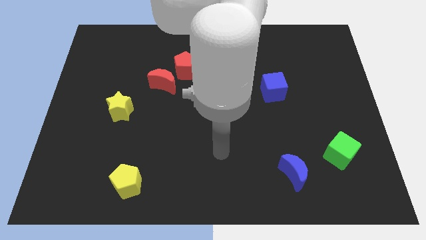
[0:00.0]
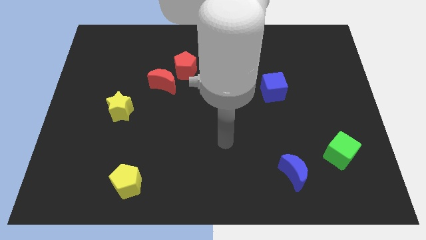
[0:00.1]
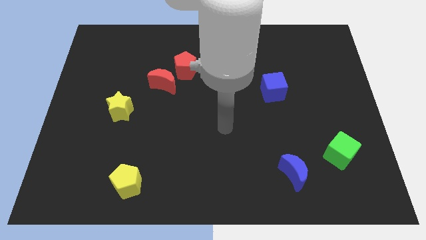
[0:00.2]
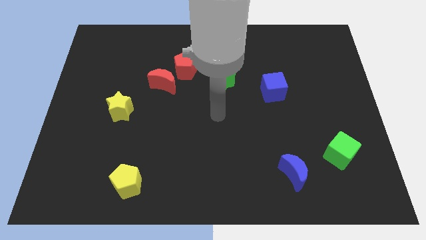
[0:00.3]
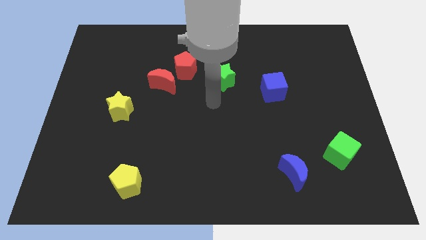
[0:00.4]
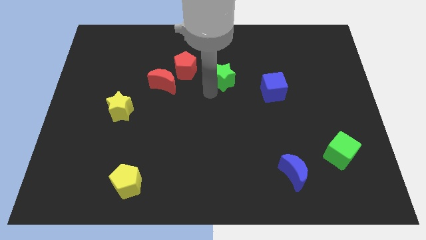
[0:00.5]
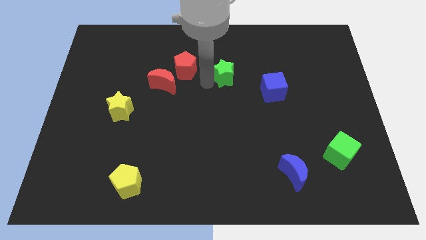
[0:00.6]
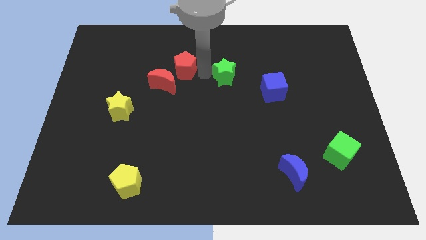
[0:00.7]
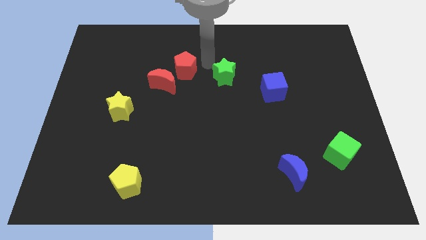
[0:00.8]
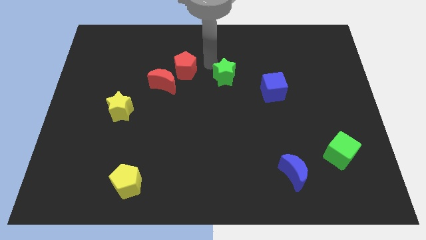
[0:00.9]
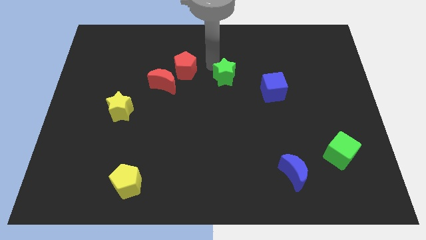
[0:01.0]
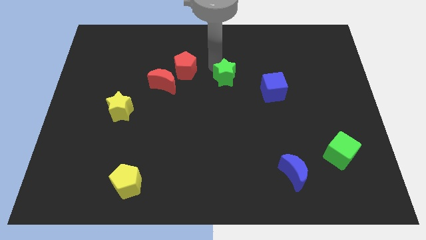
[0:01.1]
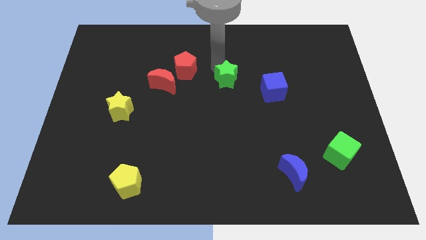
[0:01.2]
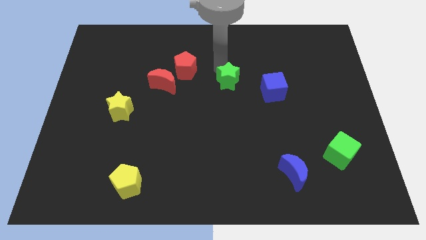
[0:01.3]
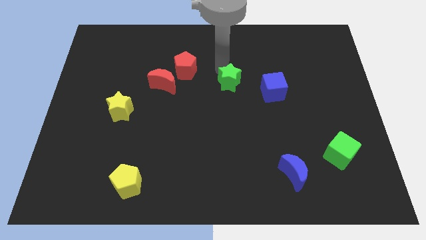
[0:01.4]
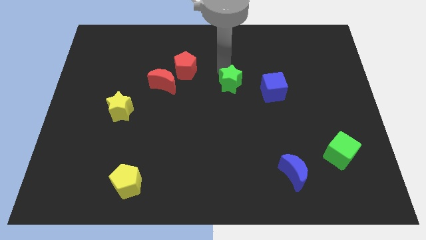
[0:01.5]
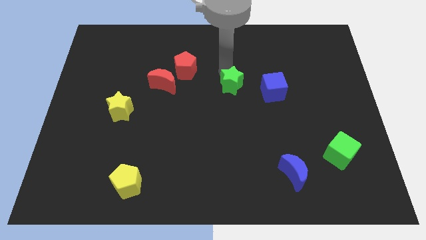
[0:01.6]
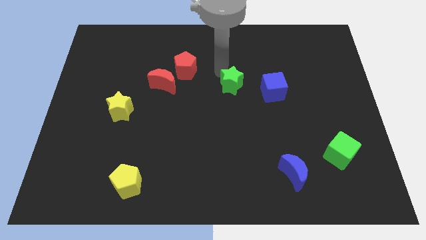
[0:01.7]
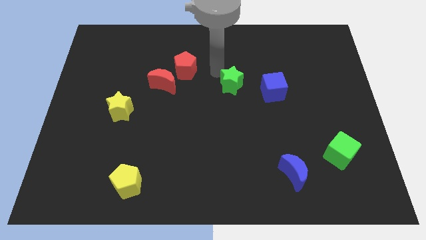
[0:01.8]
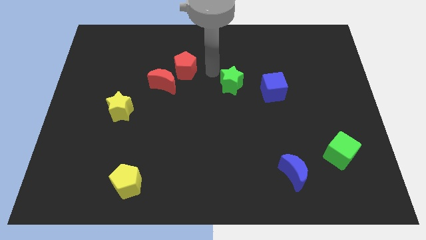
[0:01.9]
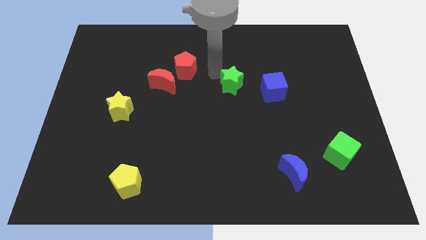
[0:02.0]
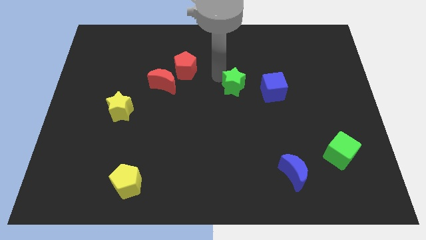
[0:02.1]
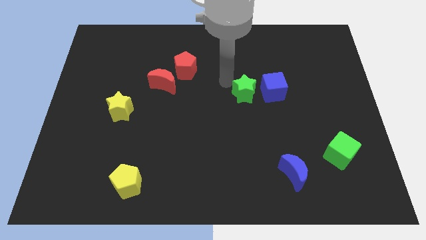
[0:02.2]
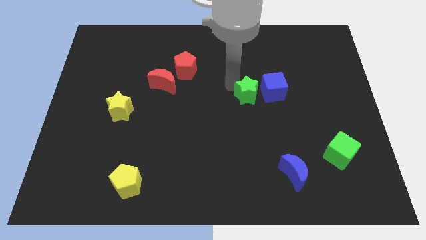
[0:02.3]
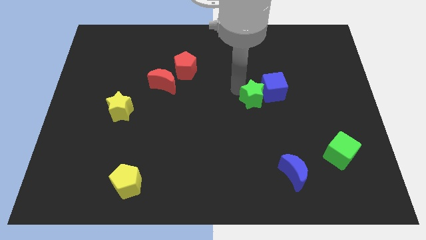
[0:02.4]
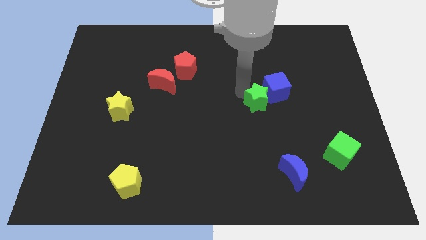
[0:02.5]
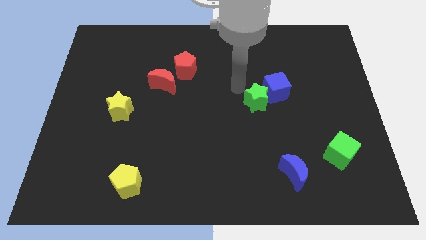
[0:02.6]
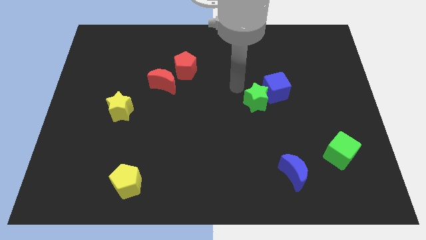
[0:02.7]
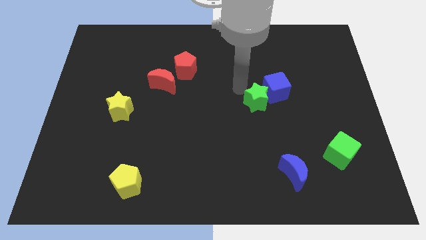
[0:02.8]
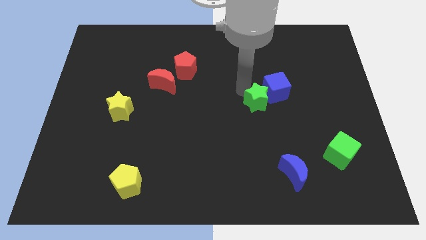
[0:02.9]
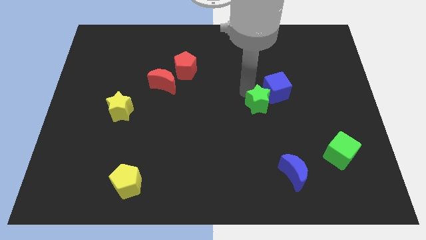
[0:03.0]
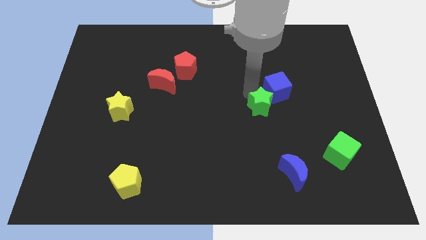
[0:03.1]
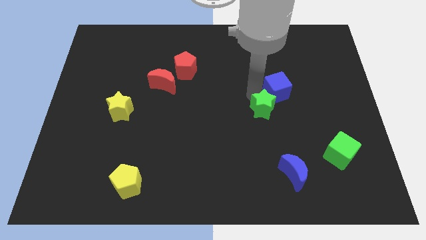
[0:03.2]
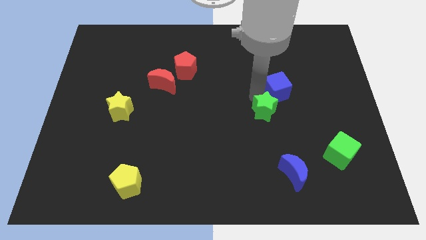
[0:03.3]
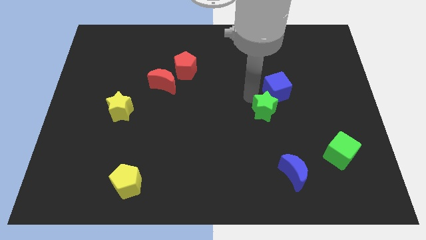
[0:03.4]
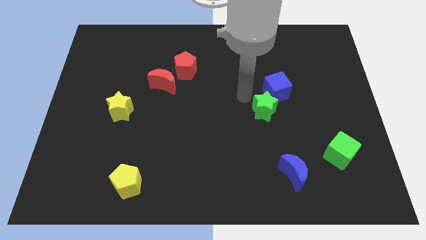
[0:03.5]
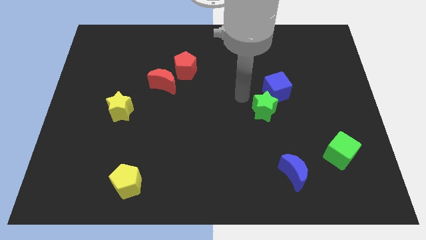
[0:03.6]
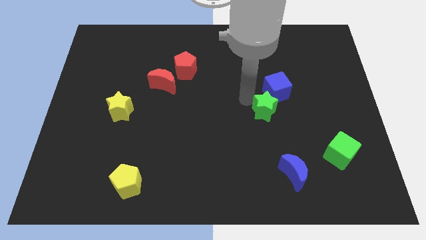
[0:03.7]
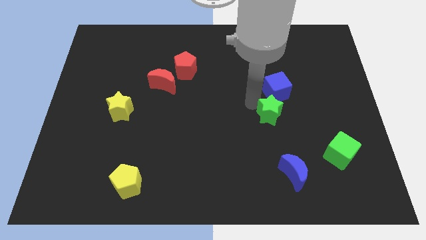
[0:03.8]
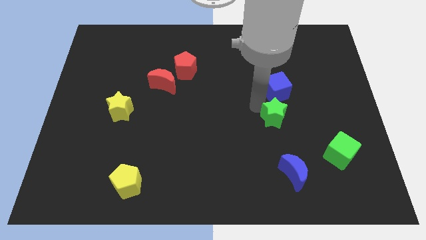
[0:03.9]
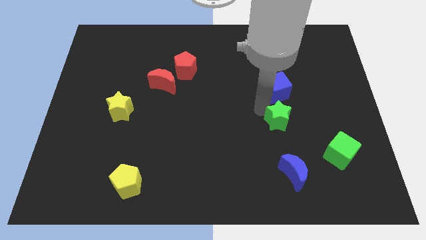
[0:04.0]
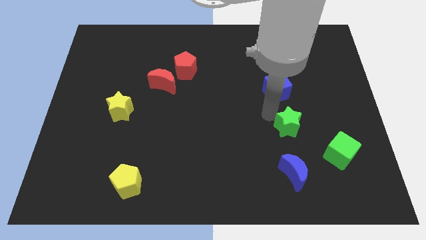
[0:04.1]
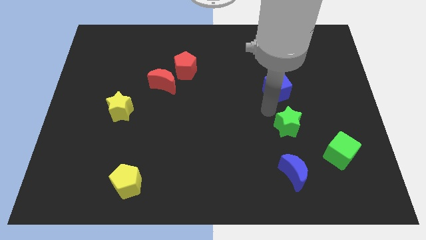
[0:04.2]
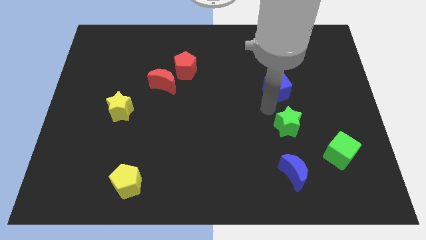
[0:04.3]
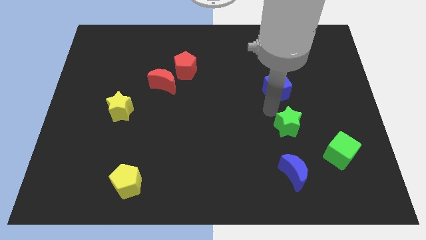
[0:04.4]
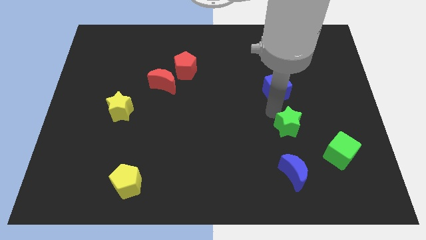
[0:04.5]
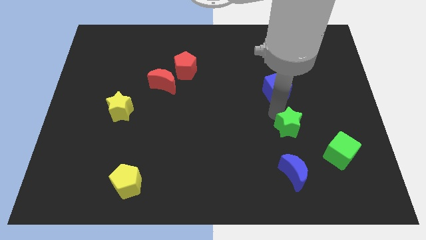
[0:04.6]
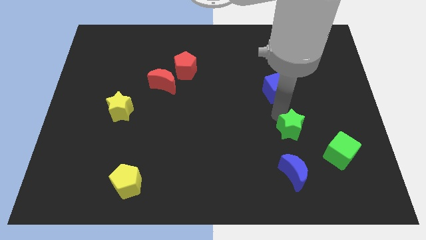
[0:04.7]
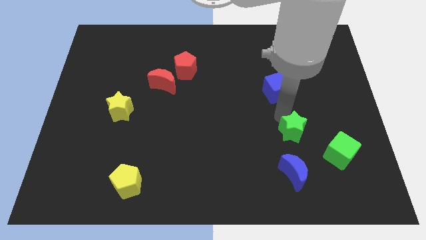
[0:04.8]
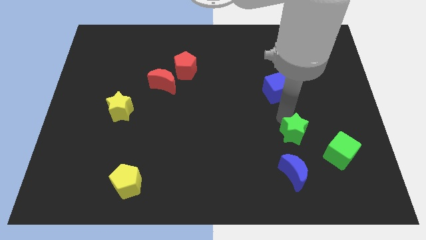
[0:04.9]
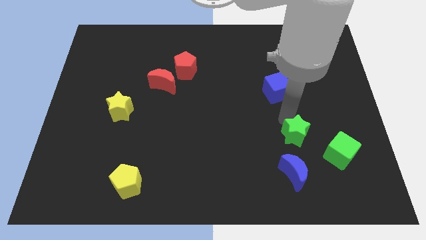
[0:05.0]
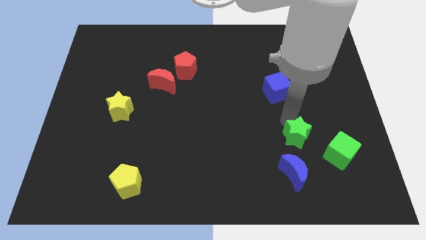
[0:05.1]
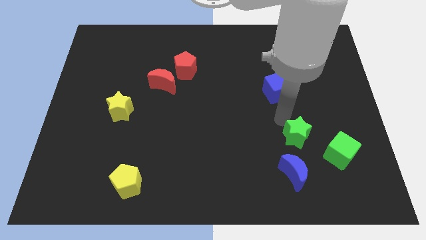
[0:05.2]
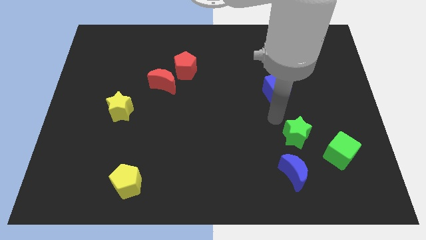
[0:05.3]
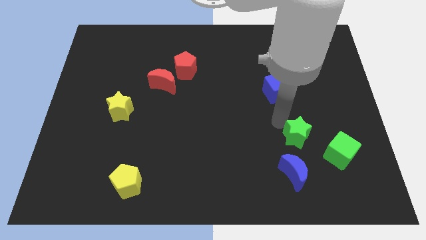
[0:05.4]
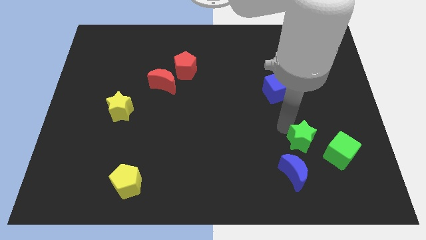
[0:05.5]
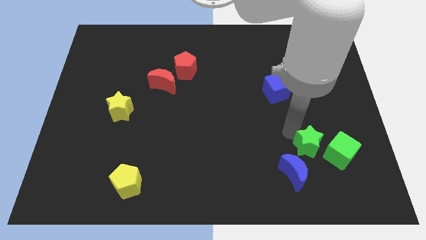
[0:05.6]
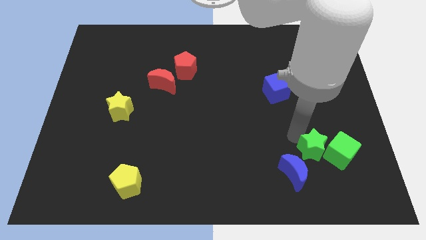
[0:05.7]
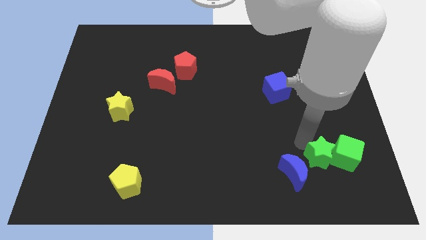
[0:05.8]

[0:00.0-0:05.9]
slide the green star right of the blue moon

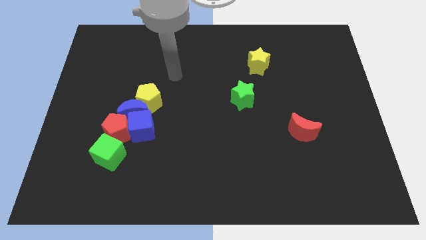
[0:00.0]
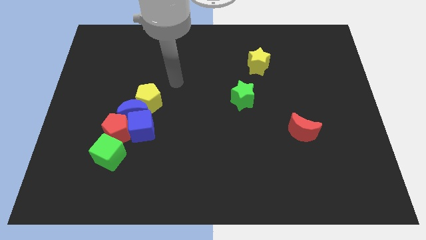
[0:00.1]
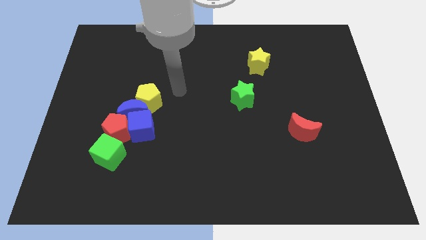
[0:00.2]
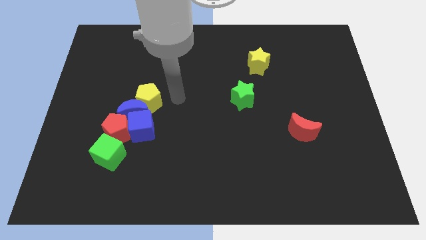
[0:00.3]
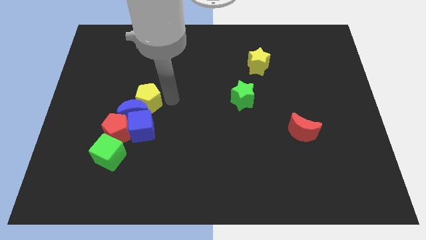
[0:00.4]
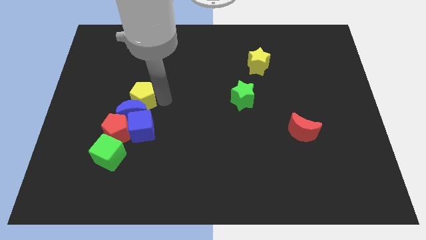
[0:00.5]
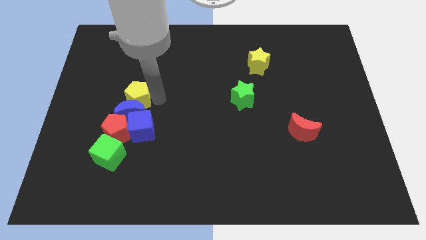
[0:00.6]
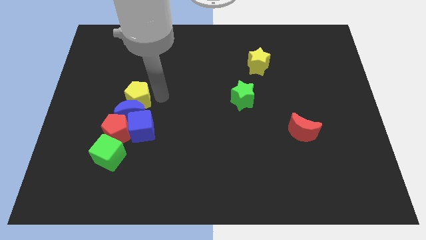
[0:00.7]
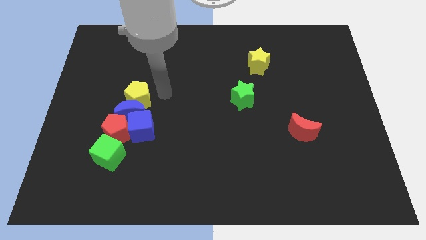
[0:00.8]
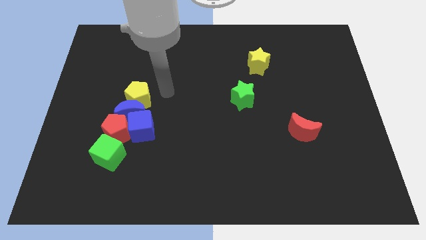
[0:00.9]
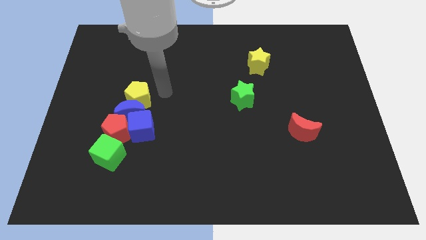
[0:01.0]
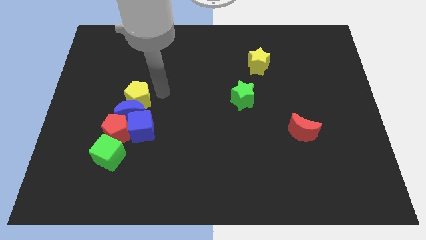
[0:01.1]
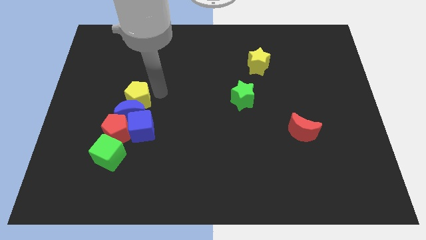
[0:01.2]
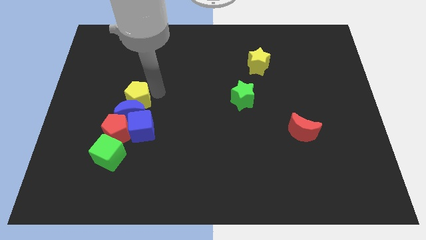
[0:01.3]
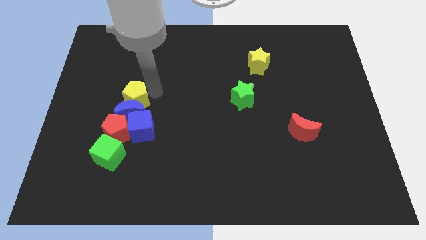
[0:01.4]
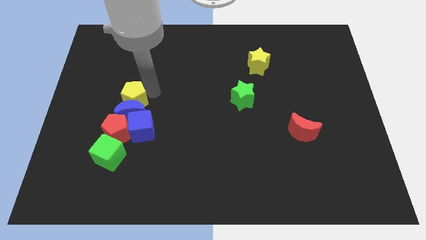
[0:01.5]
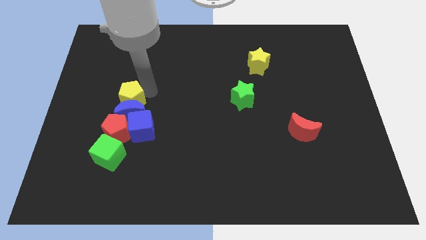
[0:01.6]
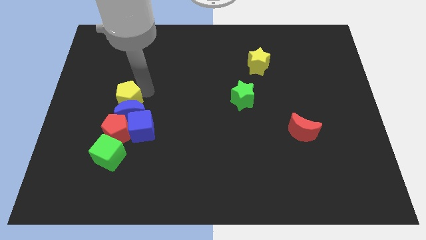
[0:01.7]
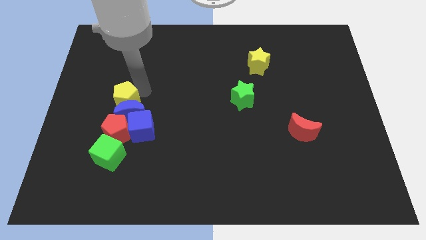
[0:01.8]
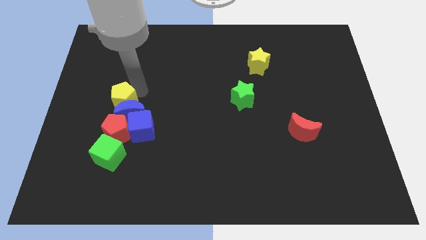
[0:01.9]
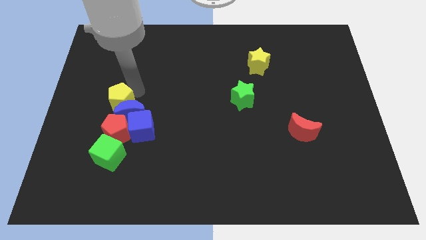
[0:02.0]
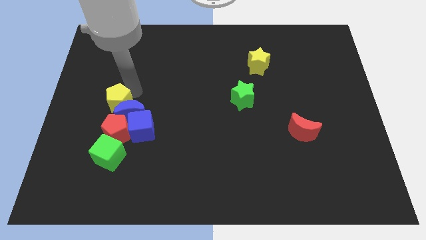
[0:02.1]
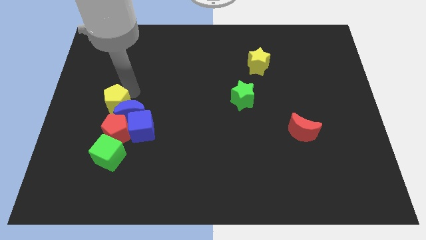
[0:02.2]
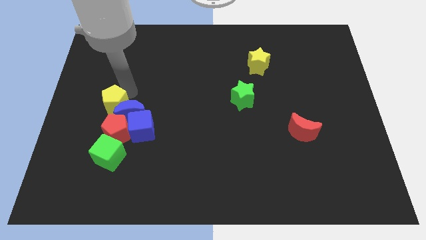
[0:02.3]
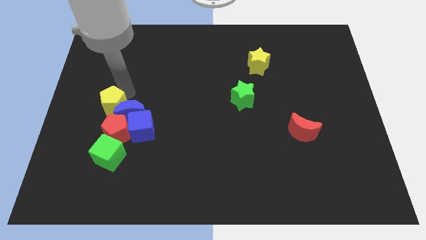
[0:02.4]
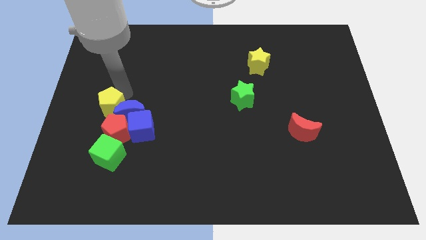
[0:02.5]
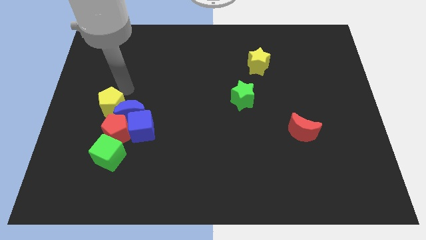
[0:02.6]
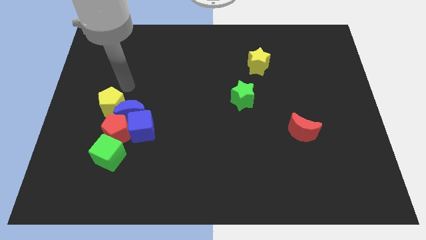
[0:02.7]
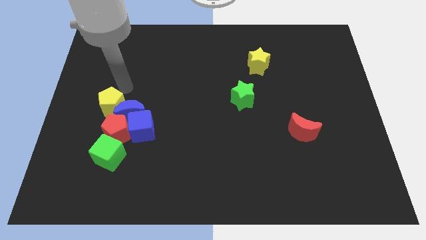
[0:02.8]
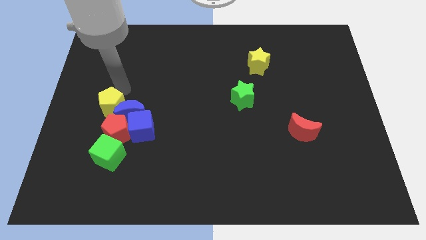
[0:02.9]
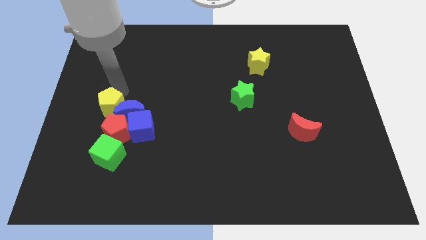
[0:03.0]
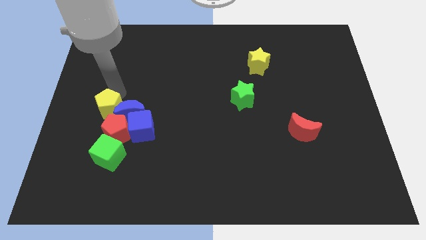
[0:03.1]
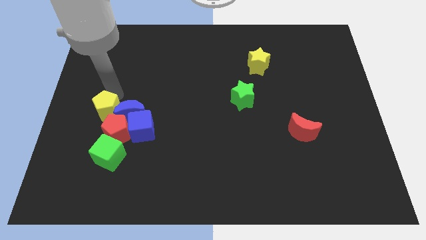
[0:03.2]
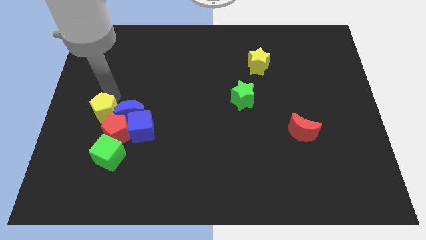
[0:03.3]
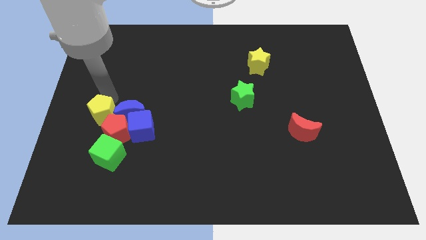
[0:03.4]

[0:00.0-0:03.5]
slide the yellow pentagon left of the blue cube
